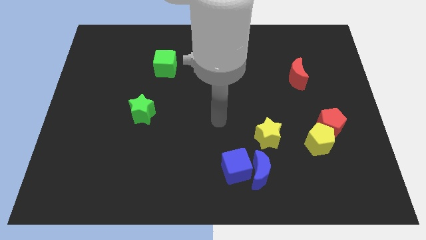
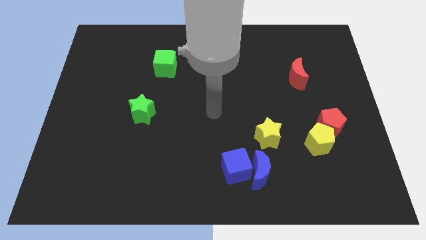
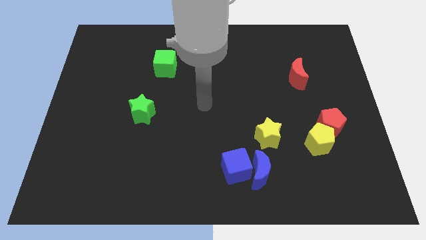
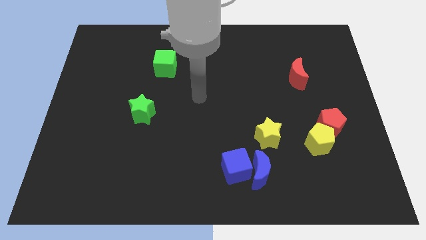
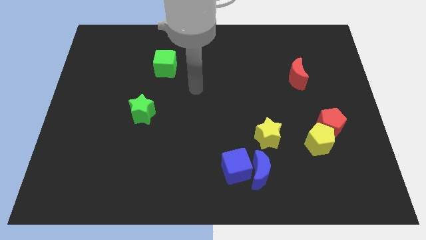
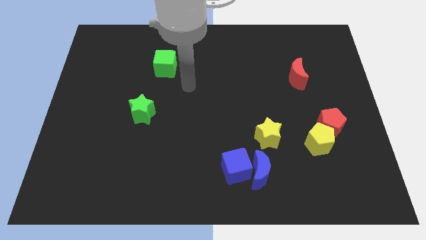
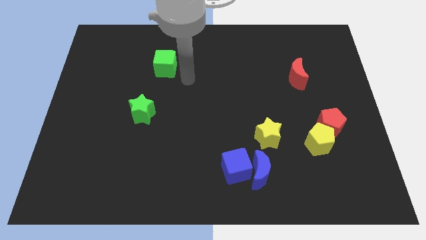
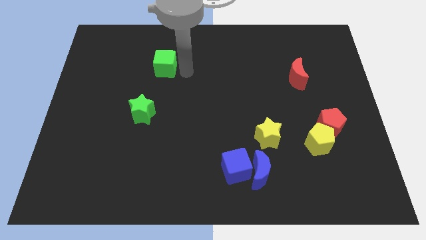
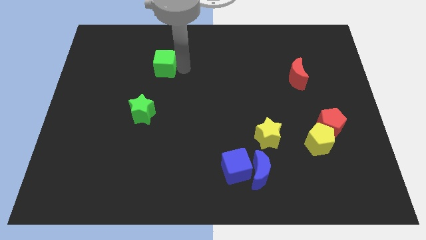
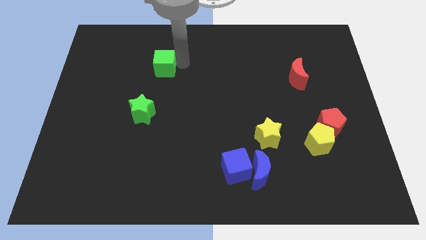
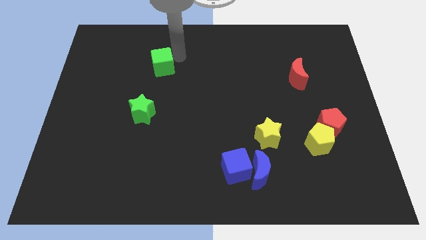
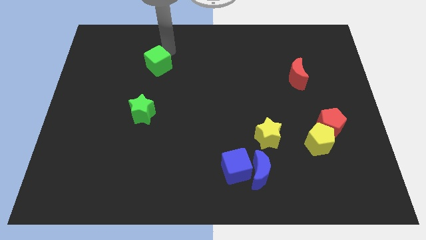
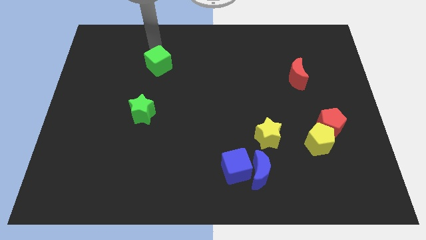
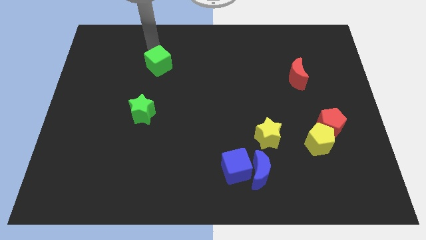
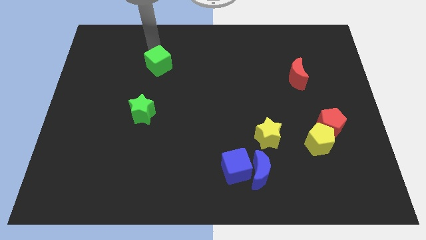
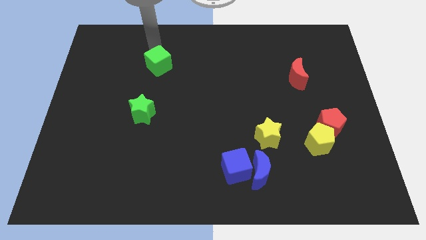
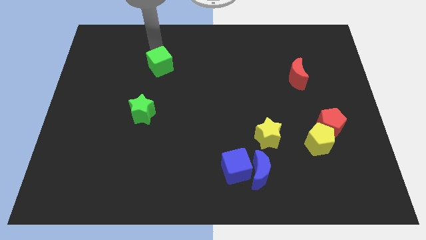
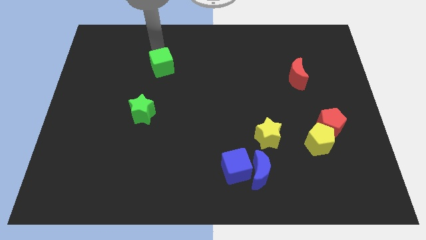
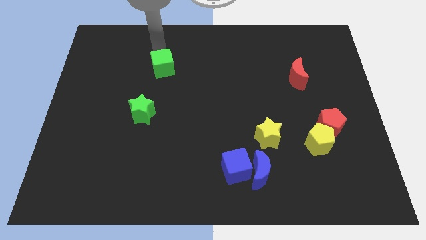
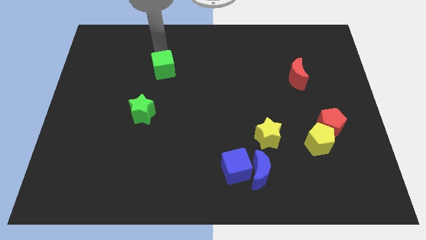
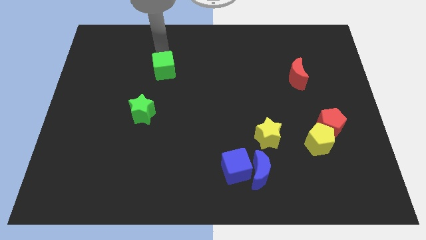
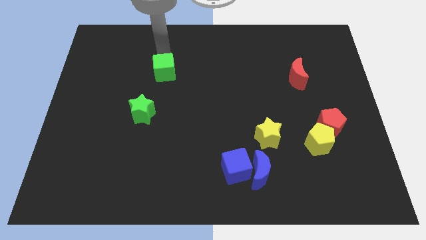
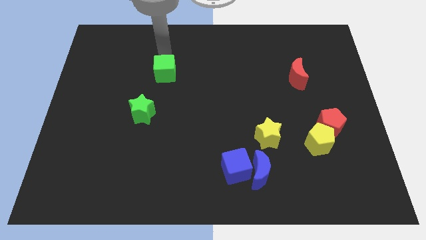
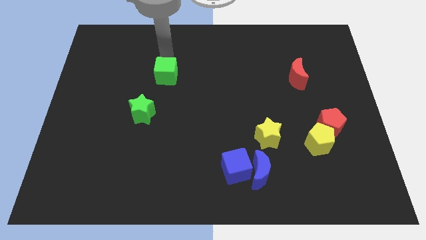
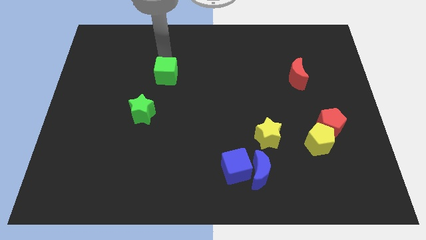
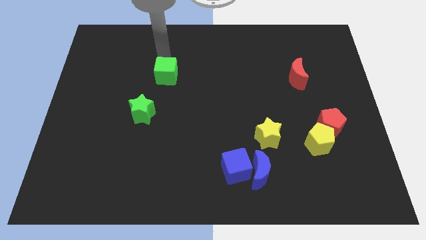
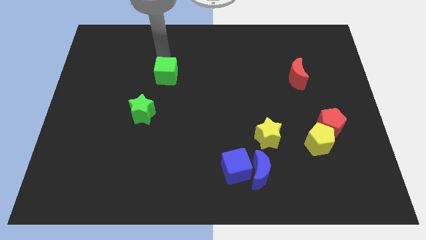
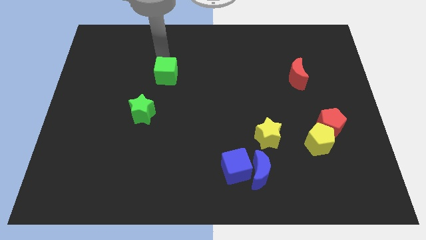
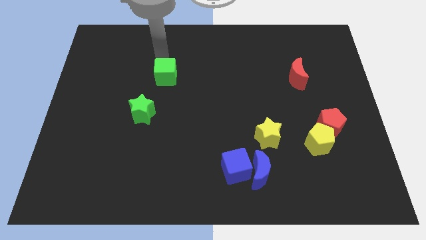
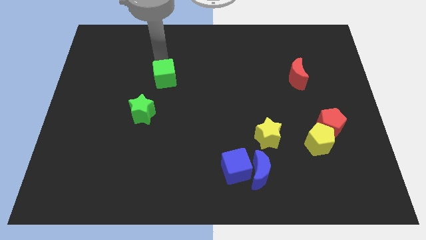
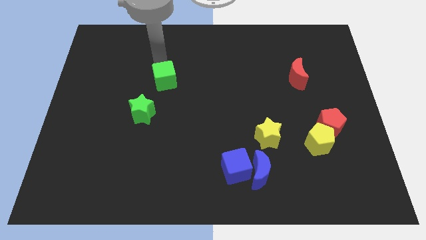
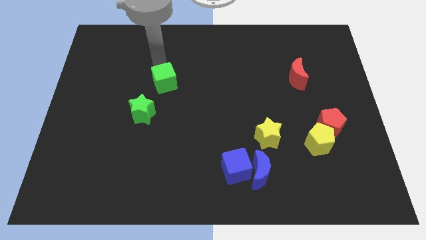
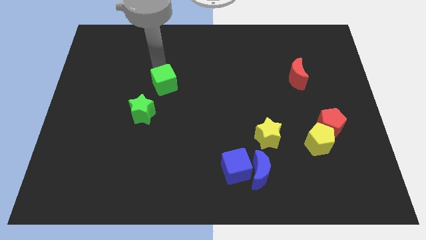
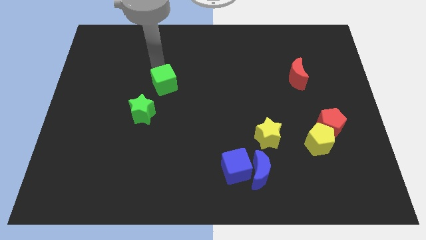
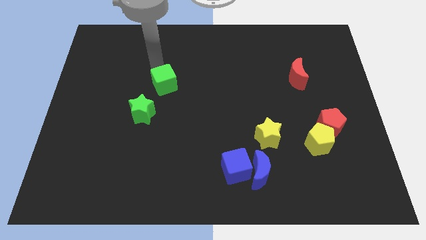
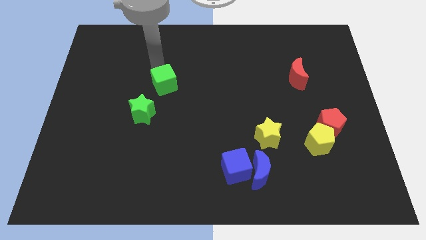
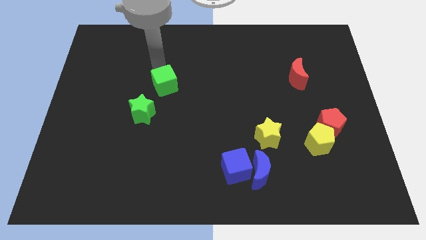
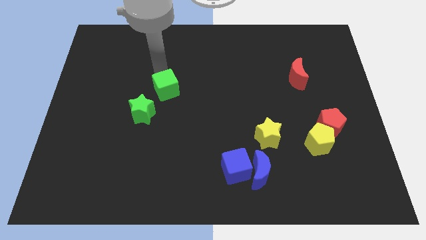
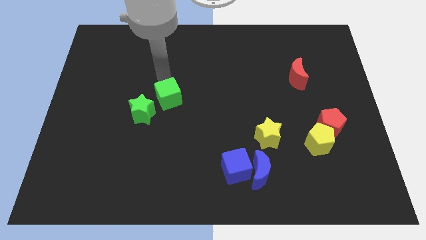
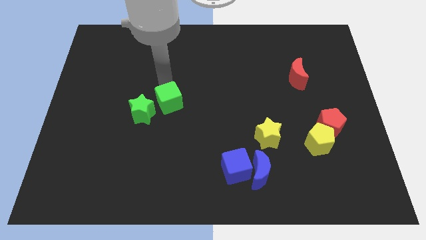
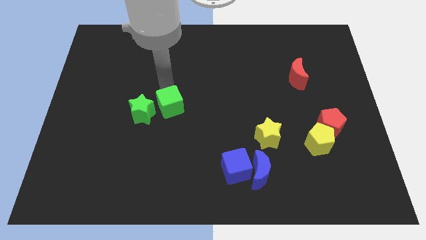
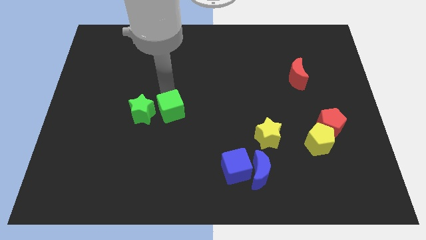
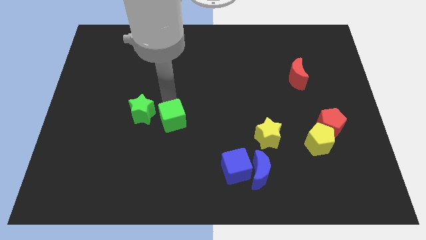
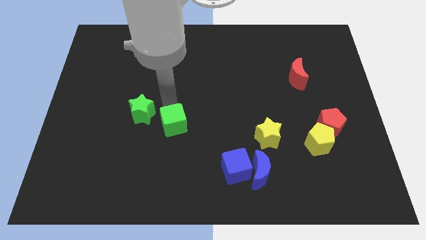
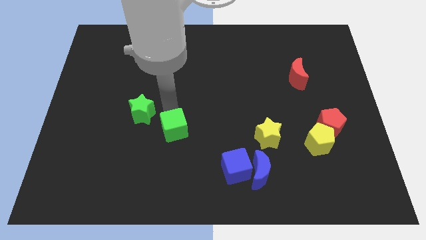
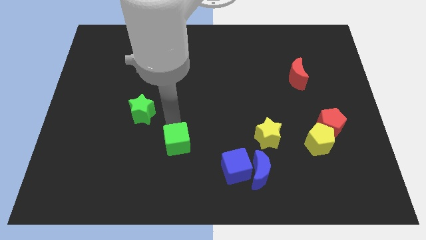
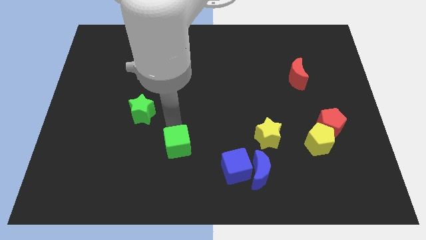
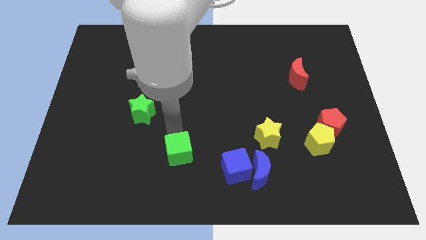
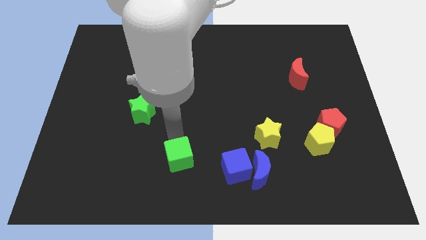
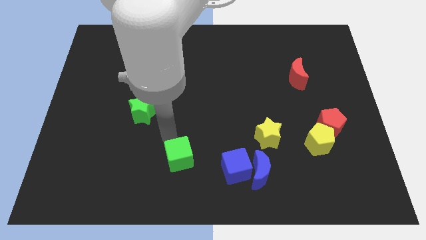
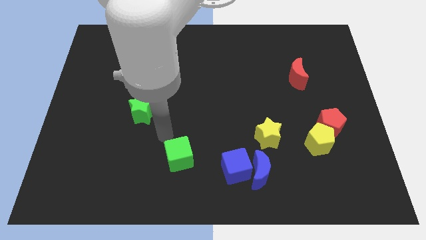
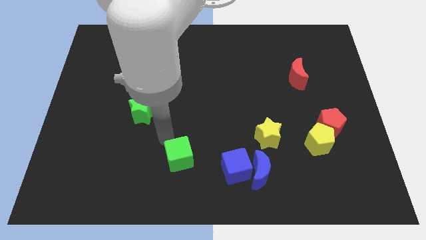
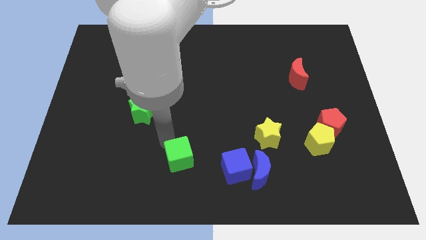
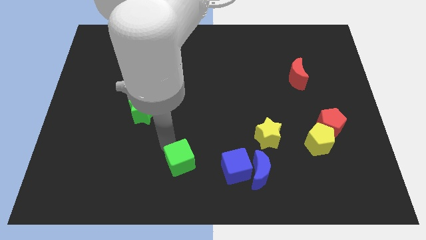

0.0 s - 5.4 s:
push the green cube to the bottom side

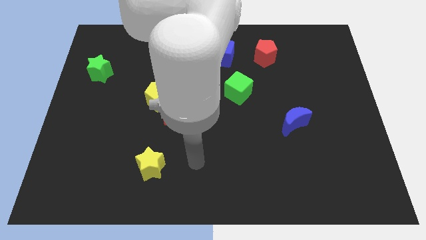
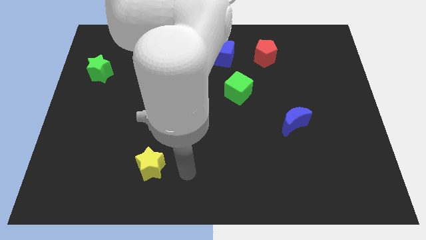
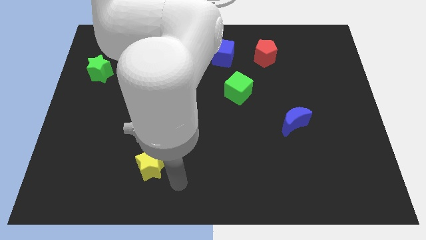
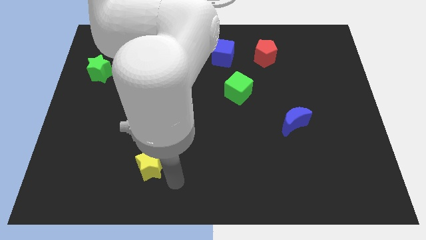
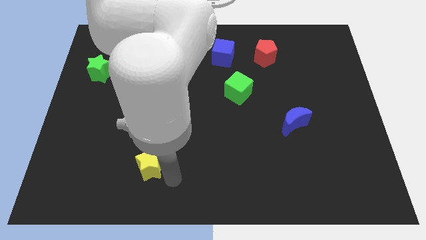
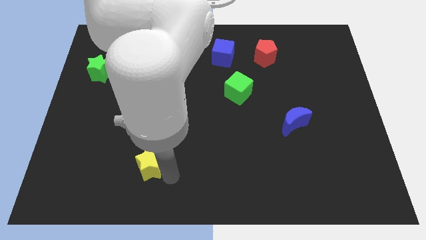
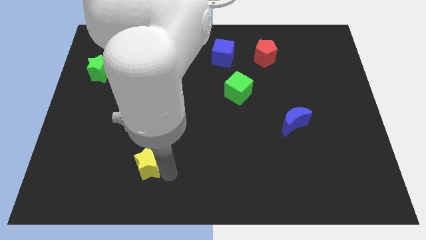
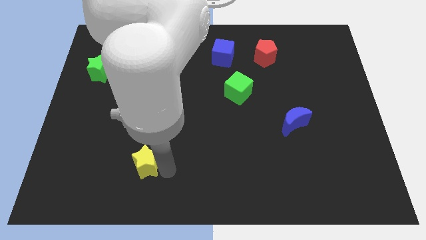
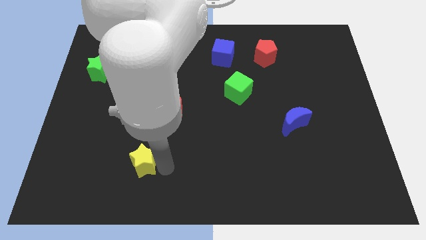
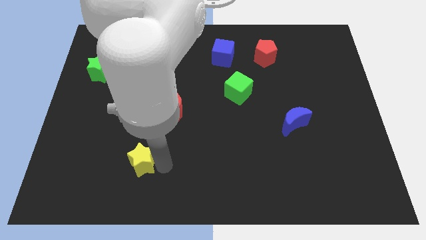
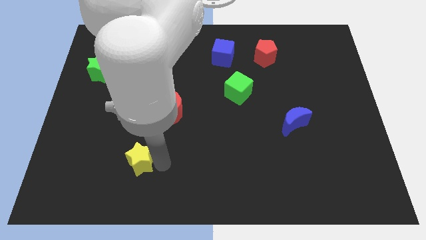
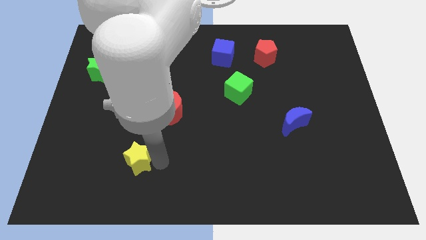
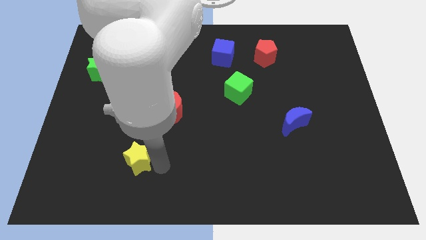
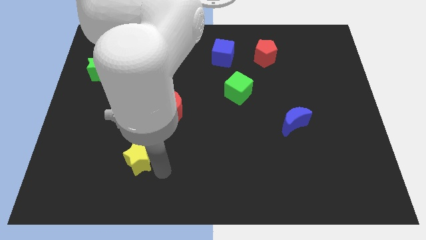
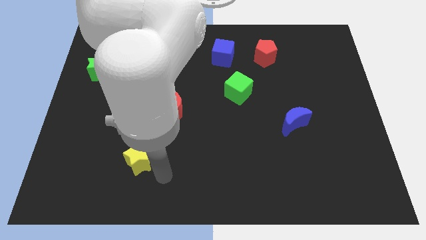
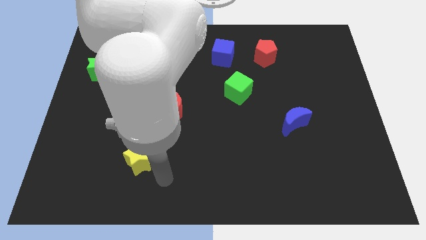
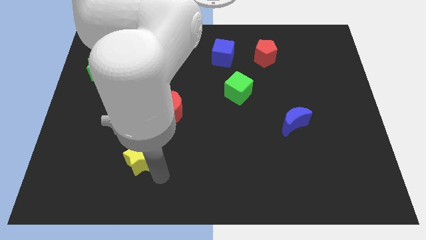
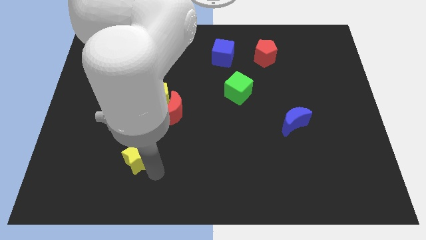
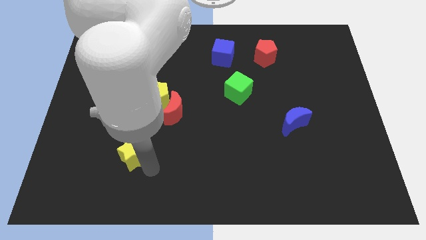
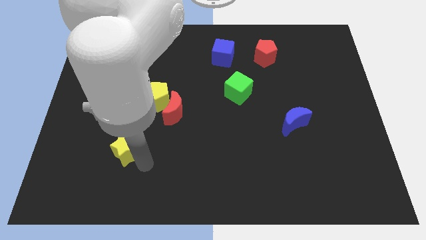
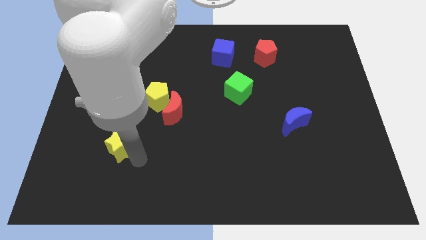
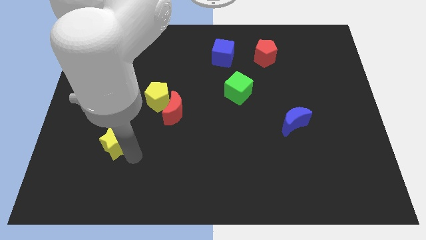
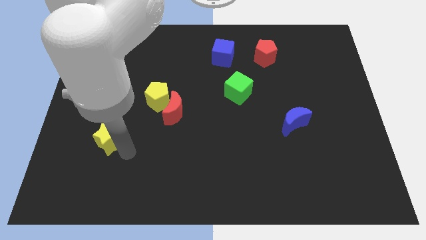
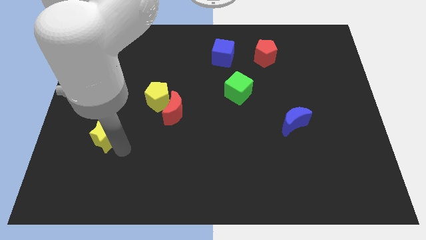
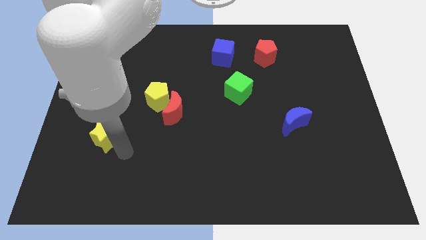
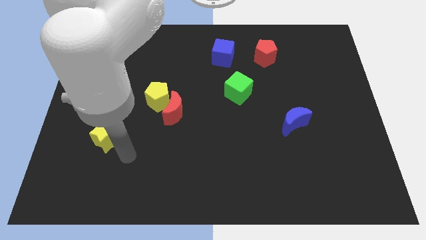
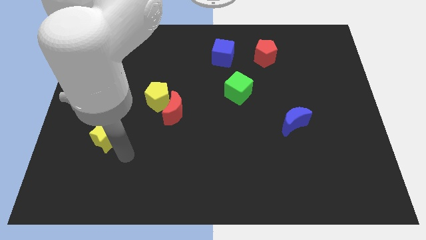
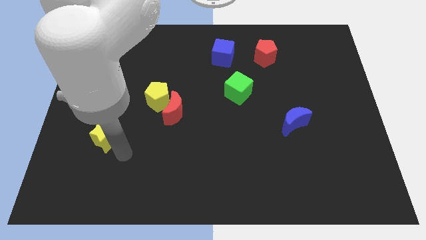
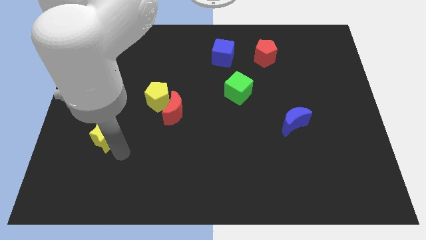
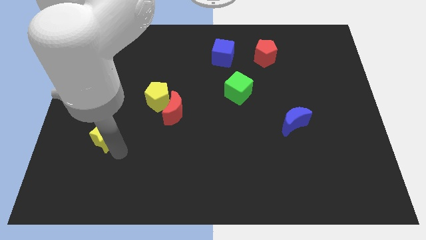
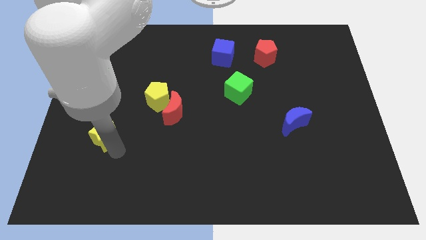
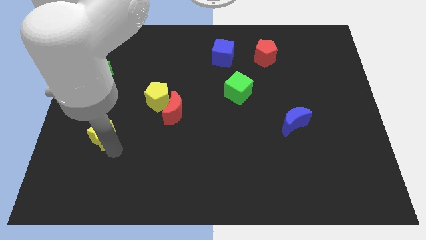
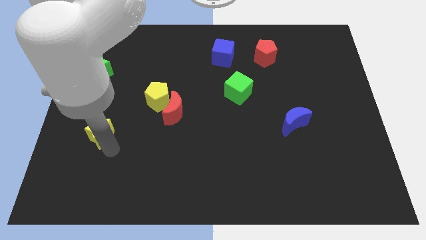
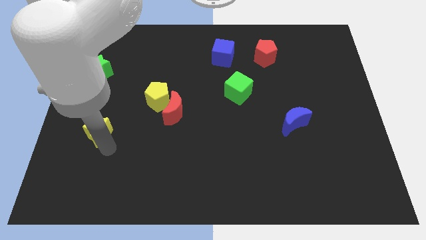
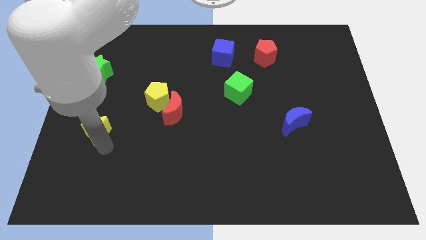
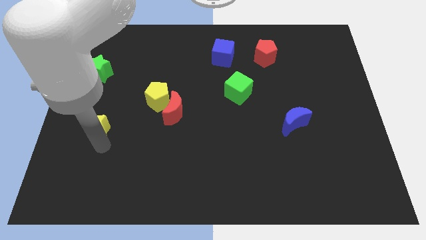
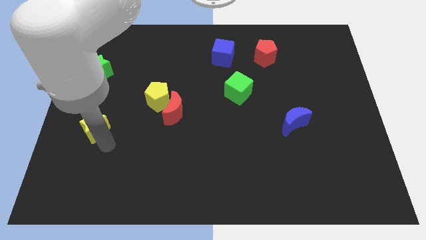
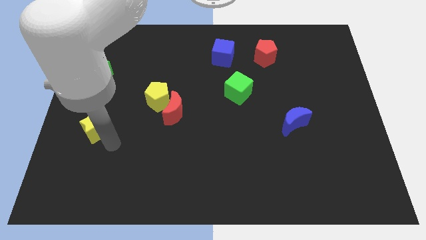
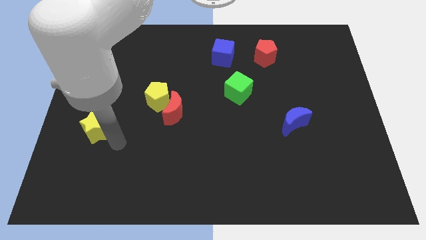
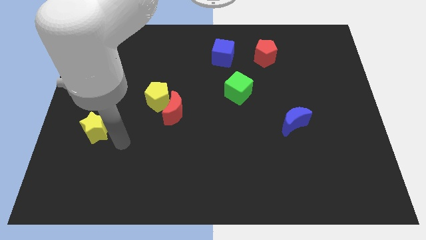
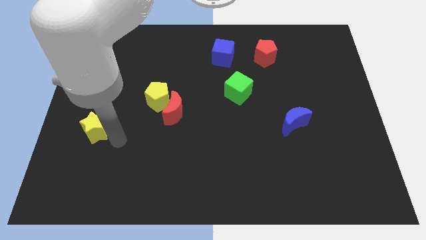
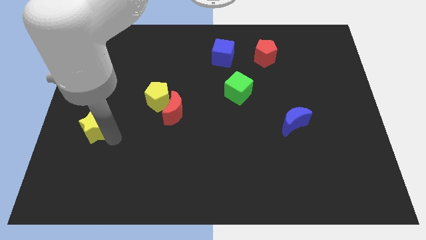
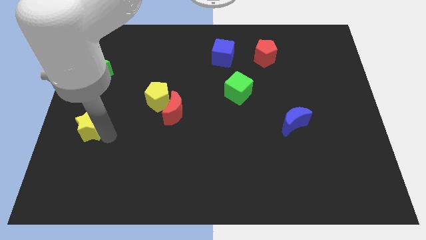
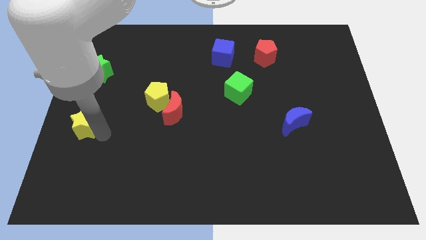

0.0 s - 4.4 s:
push the yellow star to the center left
